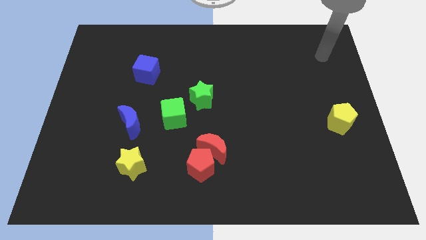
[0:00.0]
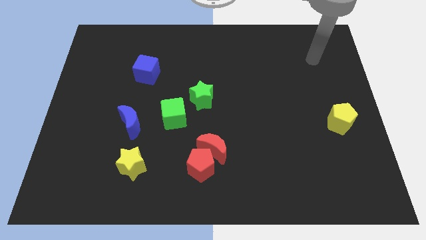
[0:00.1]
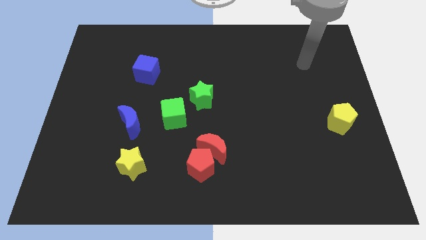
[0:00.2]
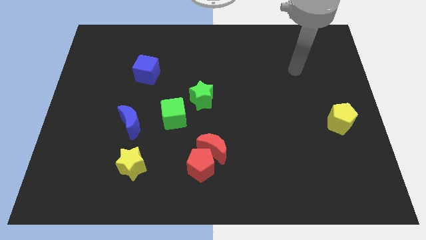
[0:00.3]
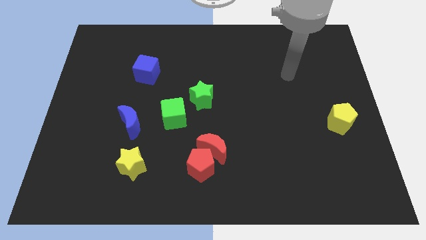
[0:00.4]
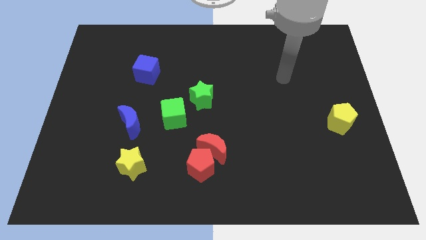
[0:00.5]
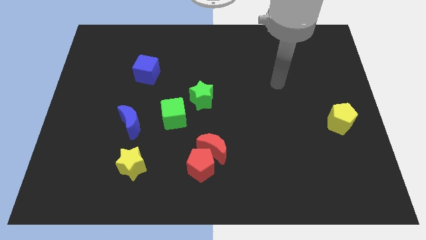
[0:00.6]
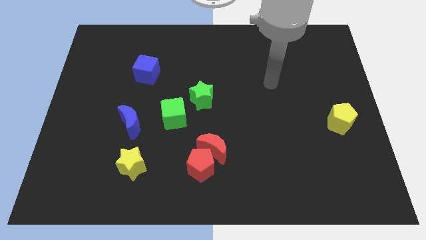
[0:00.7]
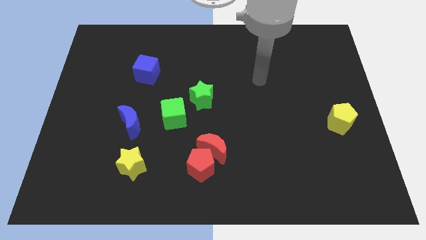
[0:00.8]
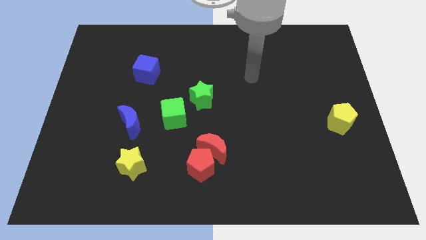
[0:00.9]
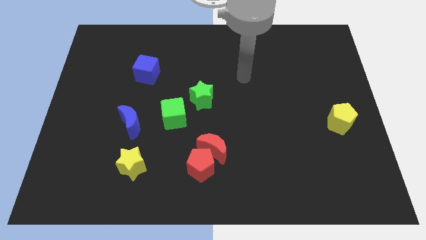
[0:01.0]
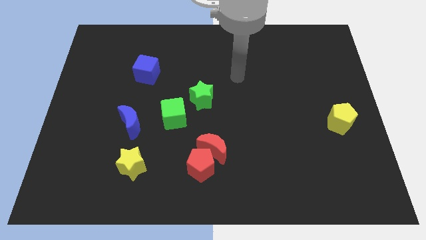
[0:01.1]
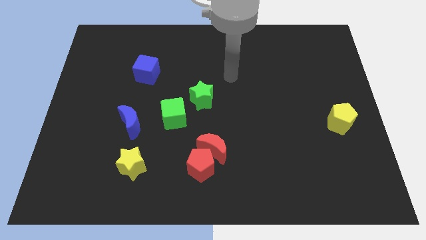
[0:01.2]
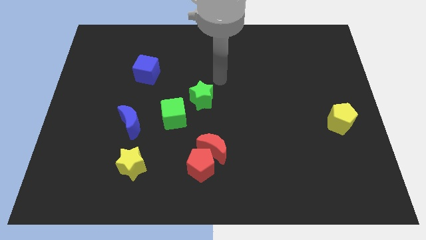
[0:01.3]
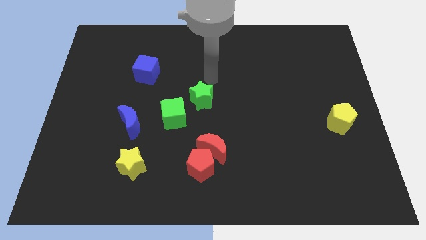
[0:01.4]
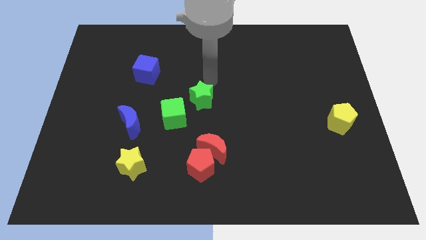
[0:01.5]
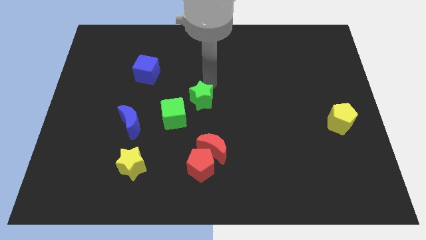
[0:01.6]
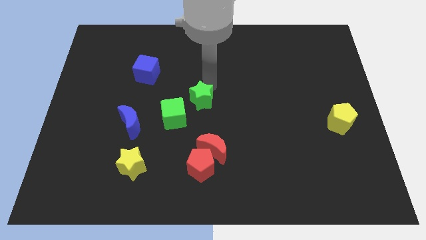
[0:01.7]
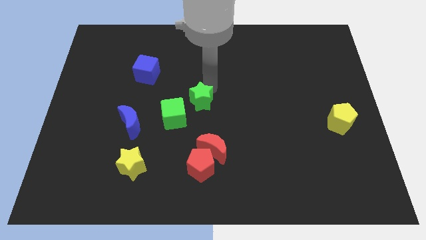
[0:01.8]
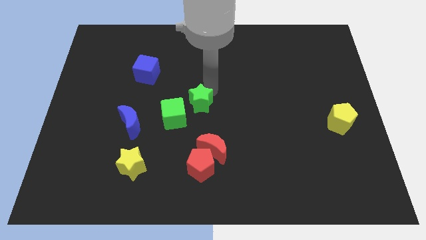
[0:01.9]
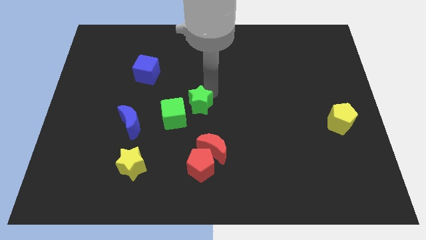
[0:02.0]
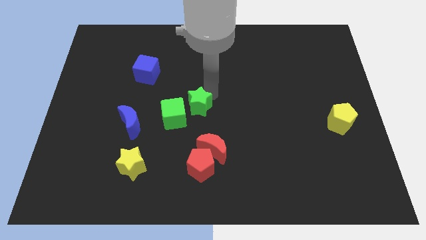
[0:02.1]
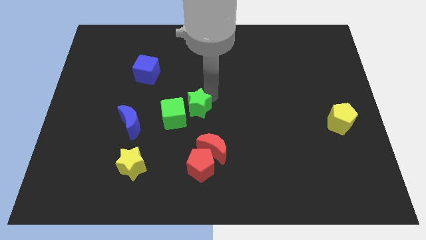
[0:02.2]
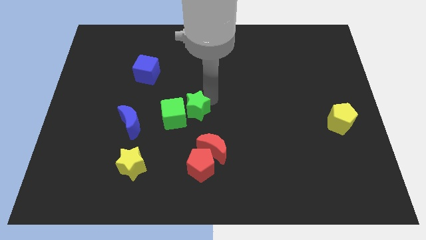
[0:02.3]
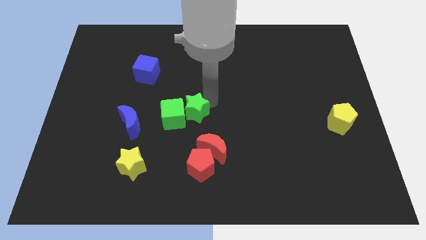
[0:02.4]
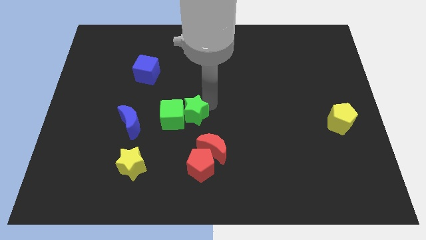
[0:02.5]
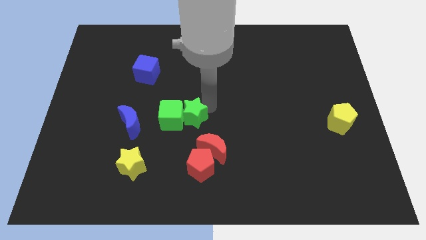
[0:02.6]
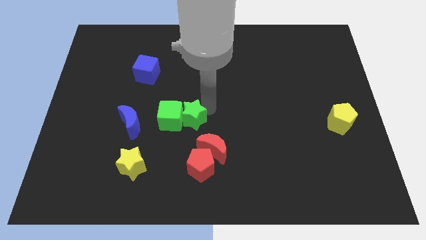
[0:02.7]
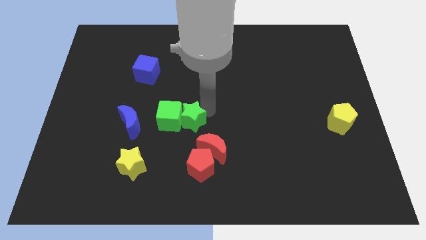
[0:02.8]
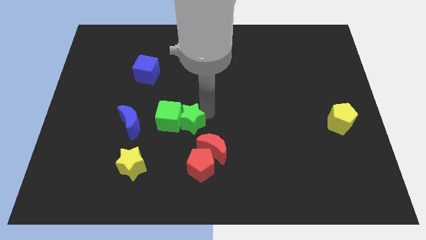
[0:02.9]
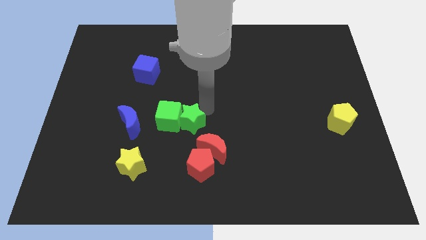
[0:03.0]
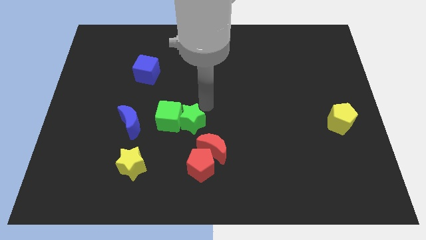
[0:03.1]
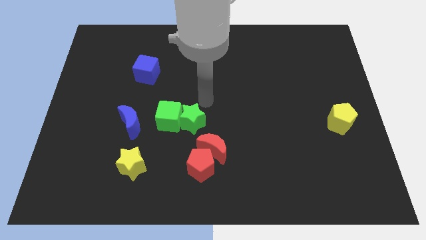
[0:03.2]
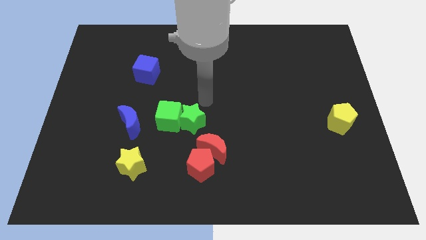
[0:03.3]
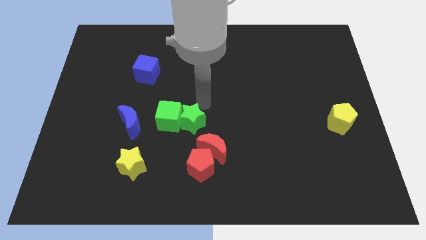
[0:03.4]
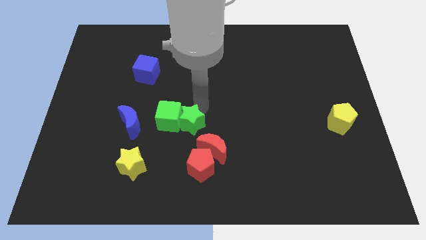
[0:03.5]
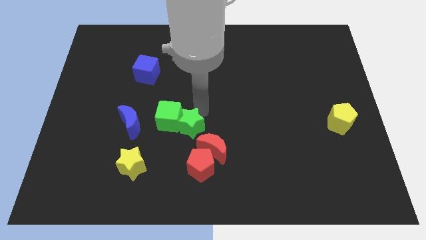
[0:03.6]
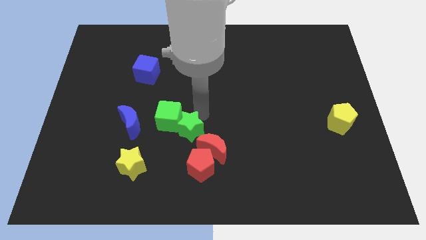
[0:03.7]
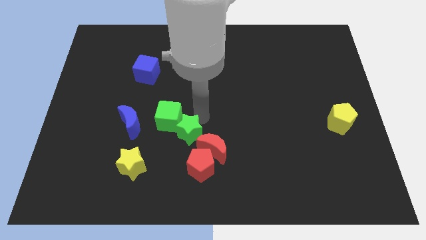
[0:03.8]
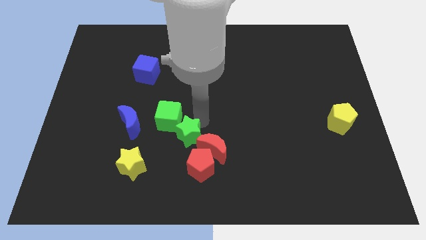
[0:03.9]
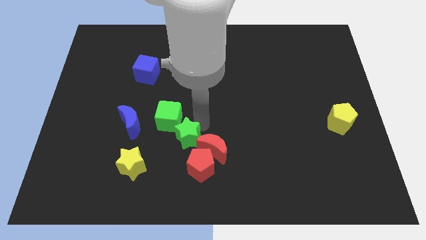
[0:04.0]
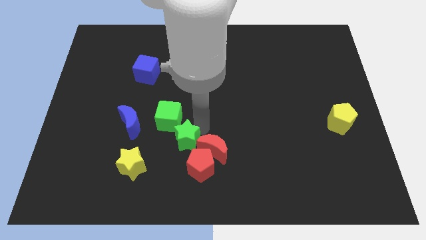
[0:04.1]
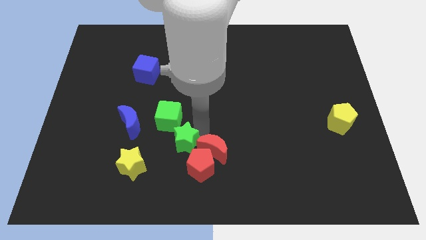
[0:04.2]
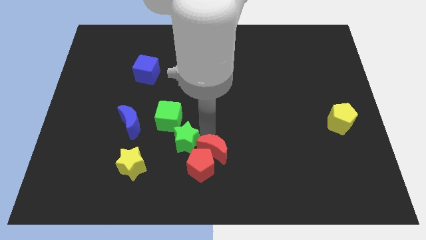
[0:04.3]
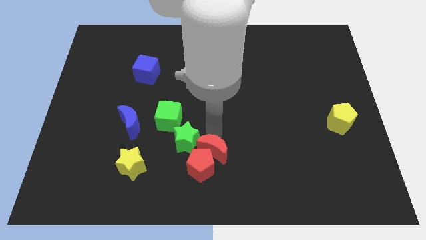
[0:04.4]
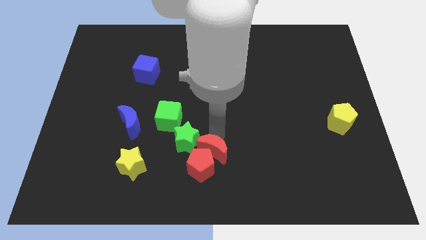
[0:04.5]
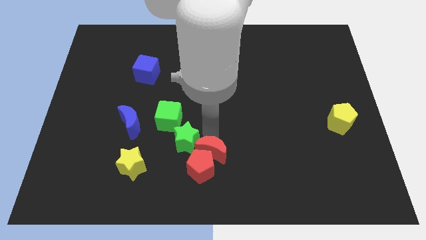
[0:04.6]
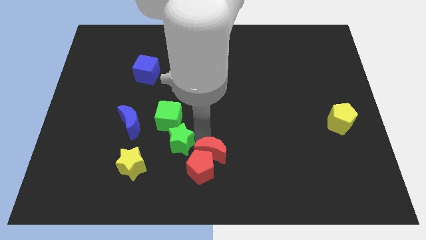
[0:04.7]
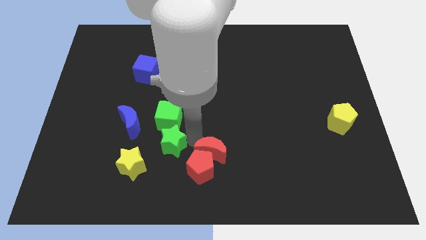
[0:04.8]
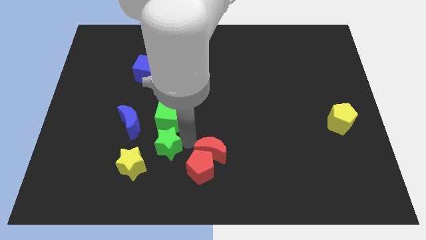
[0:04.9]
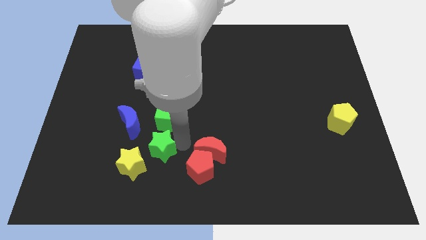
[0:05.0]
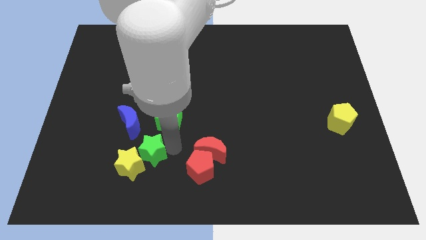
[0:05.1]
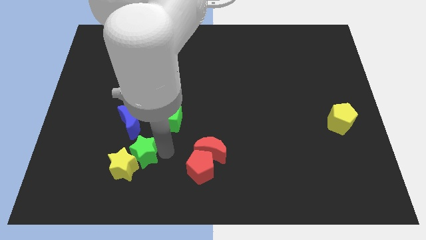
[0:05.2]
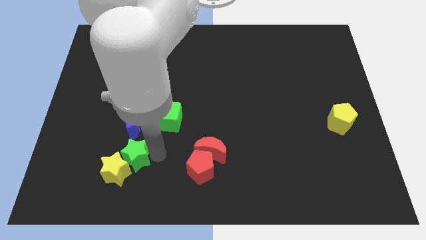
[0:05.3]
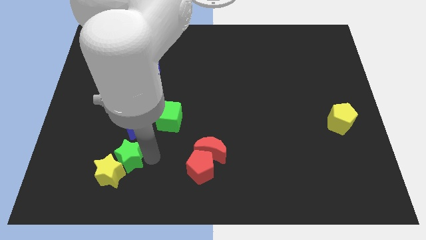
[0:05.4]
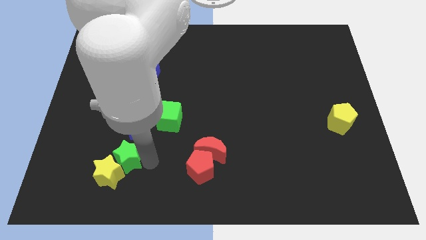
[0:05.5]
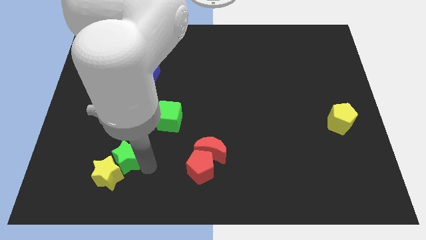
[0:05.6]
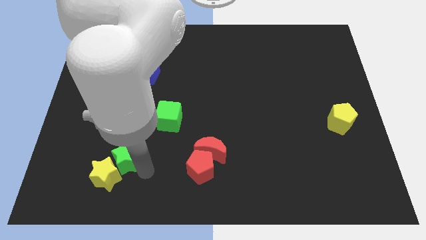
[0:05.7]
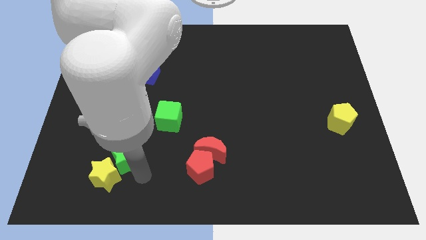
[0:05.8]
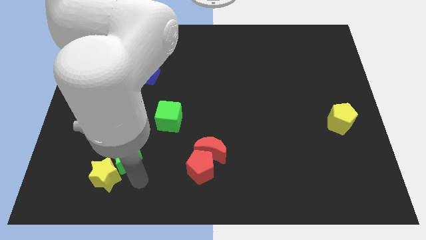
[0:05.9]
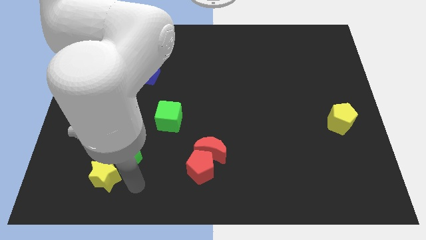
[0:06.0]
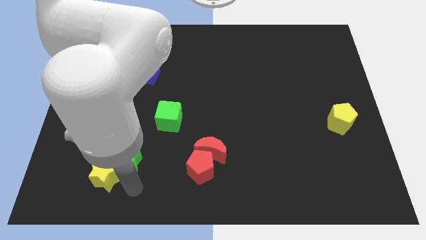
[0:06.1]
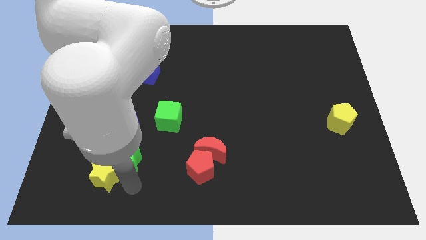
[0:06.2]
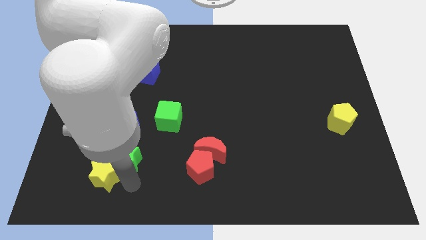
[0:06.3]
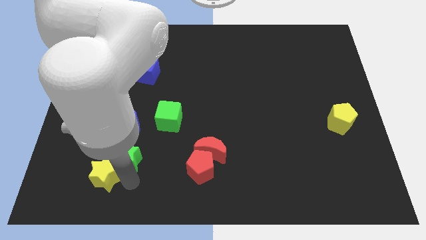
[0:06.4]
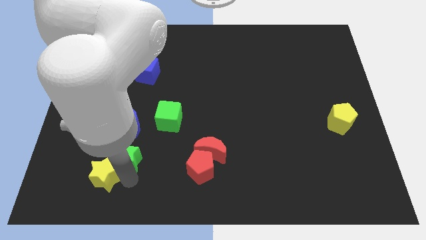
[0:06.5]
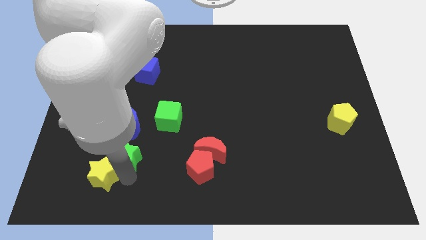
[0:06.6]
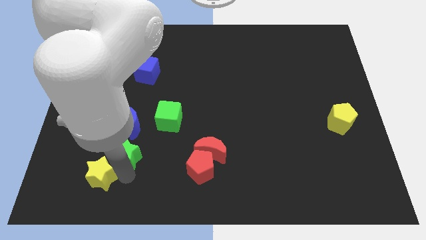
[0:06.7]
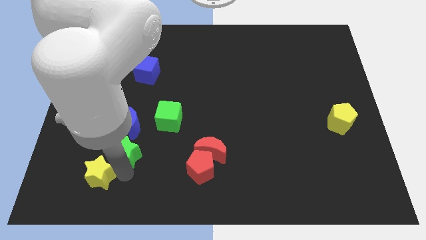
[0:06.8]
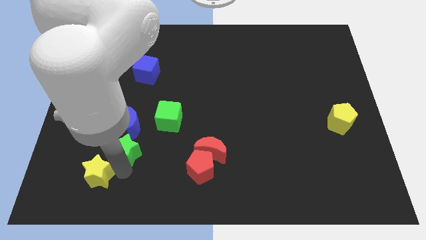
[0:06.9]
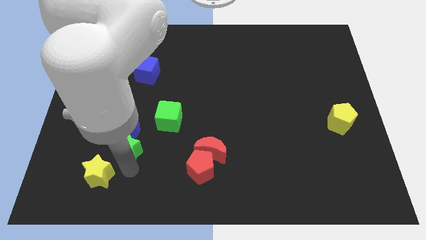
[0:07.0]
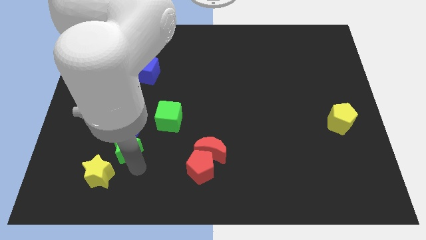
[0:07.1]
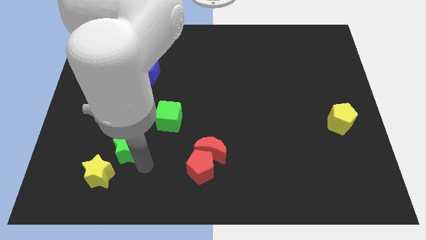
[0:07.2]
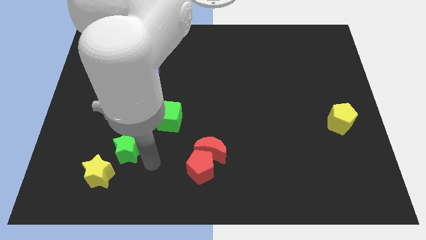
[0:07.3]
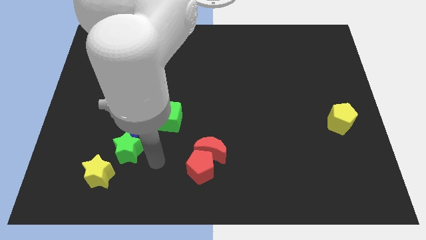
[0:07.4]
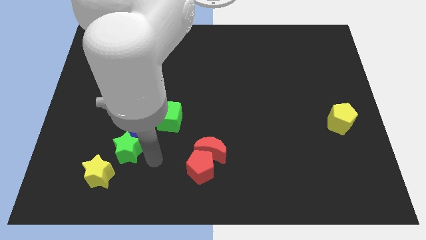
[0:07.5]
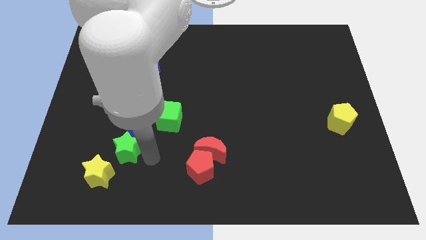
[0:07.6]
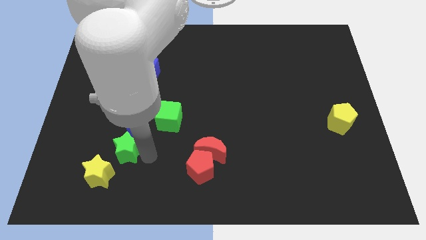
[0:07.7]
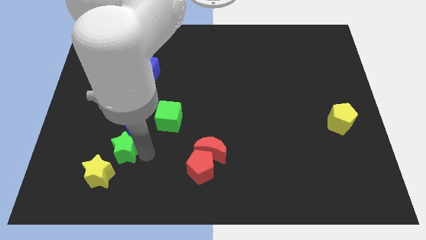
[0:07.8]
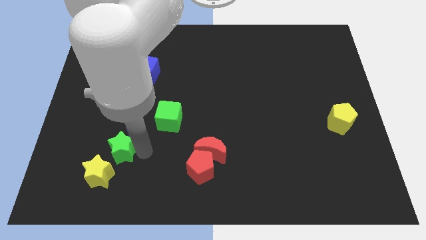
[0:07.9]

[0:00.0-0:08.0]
move the green star diagonally down and to the left of the blue moon
